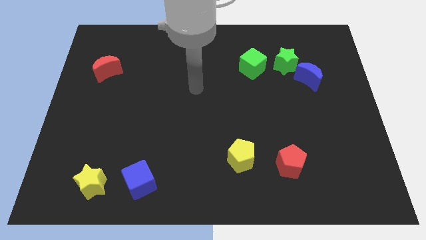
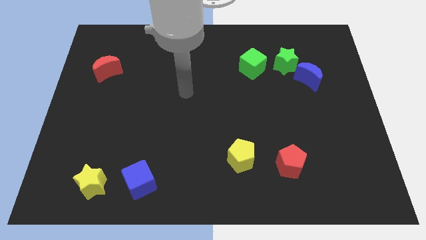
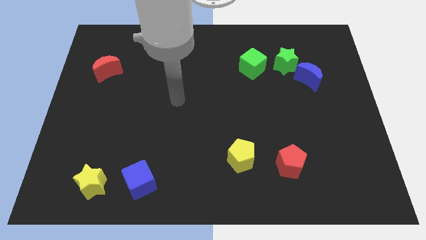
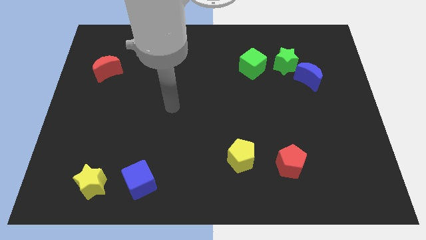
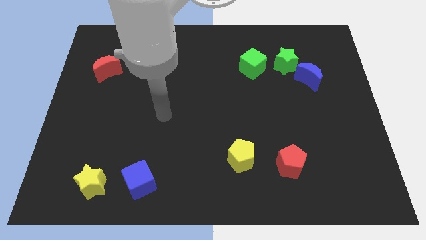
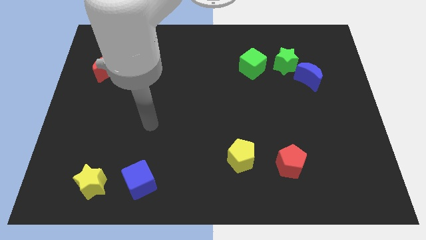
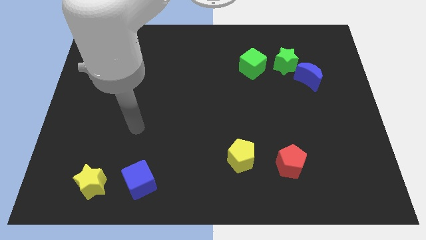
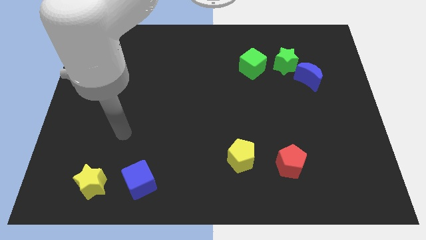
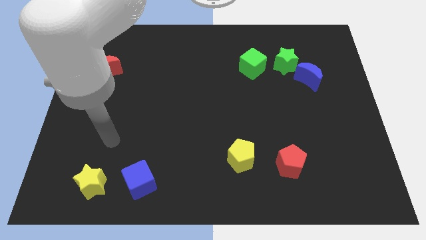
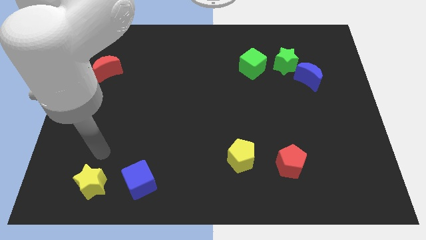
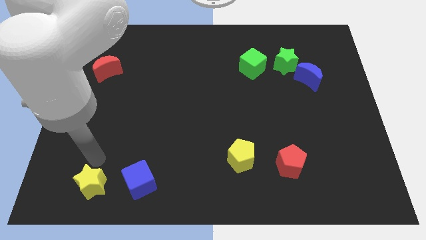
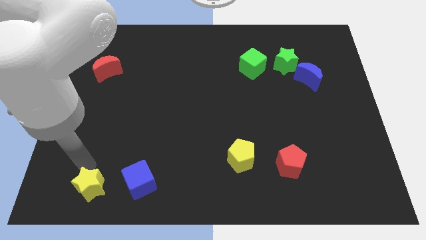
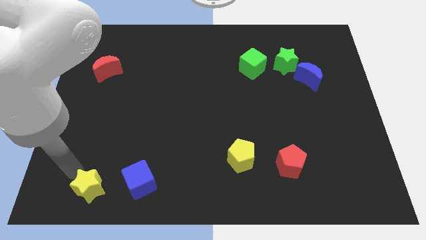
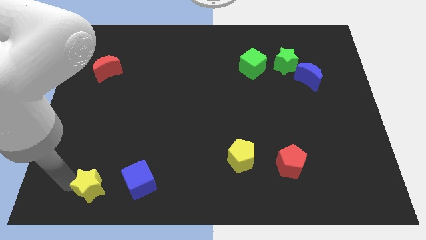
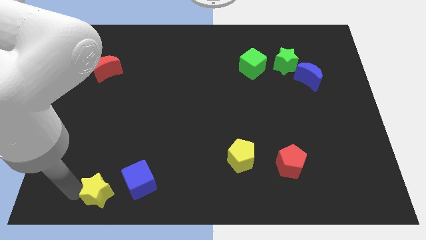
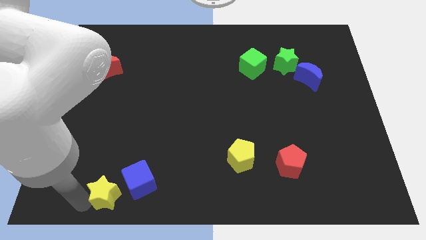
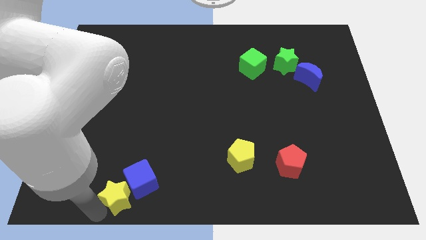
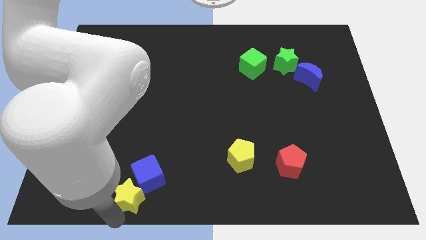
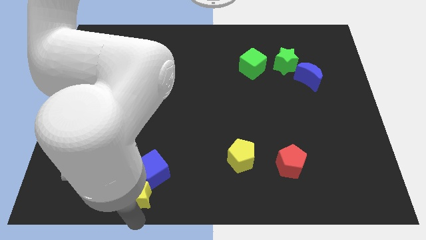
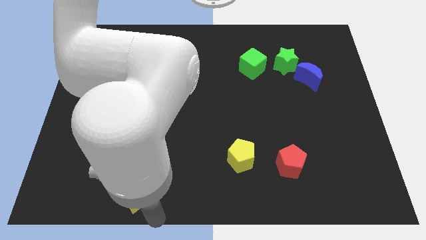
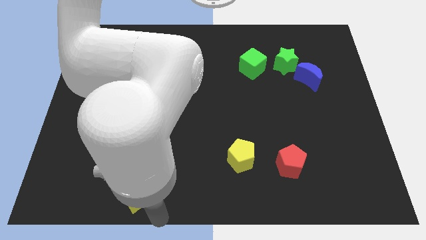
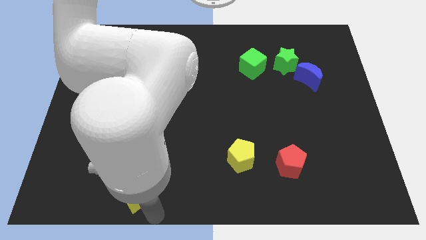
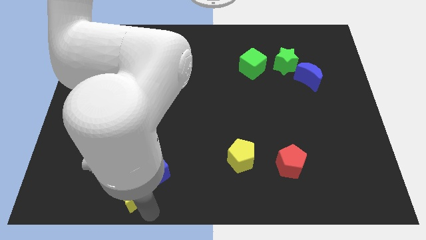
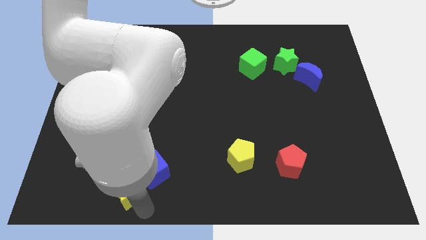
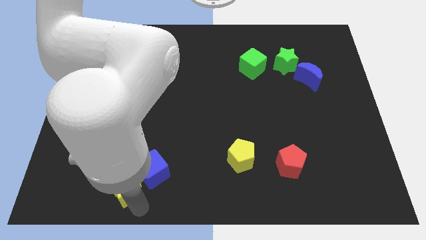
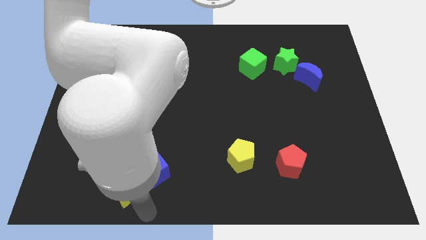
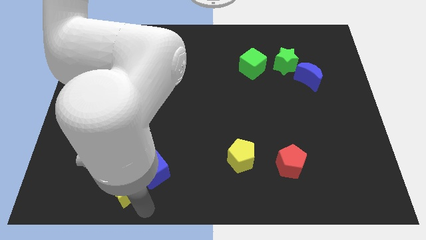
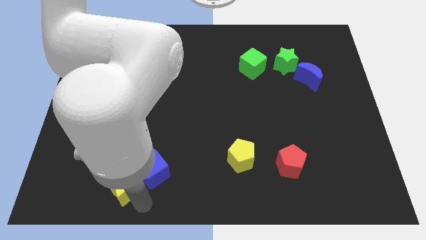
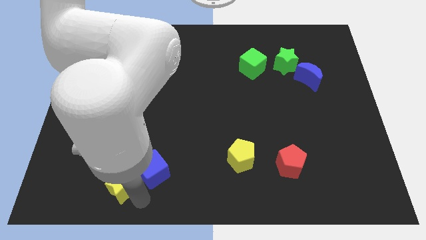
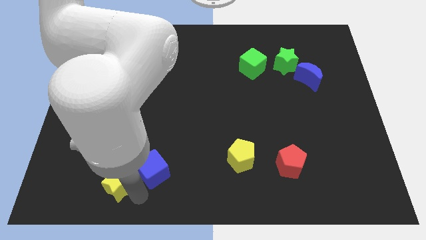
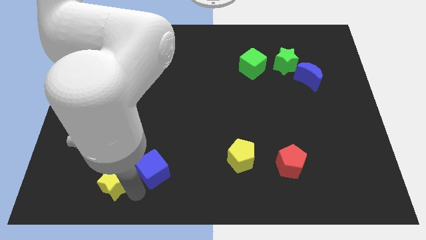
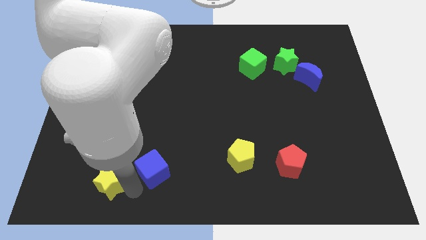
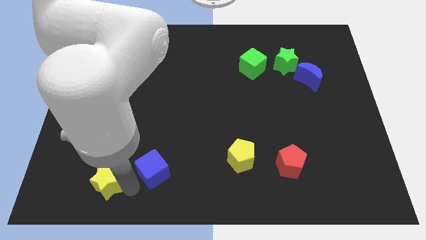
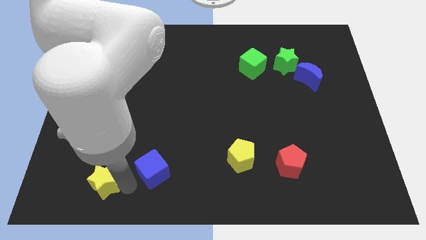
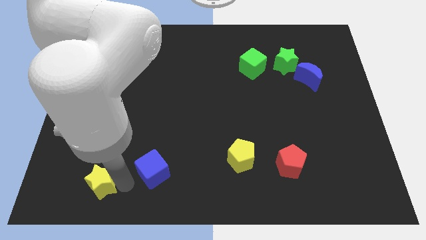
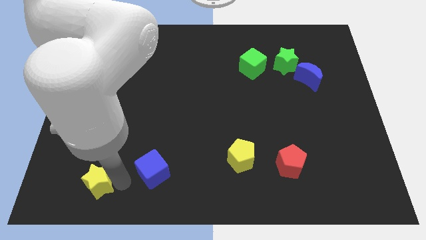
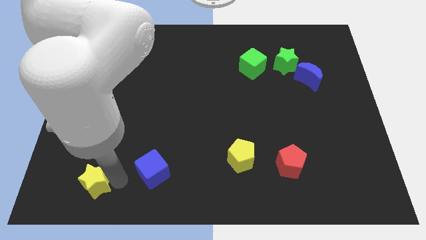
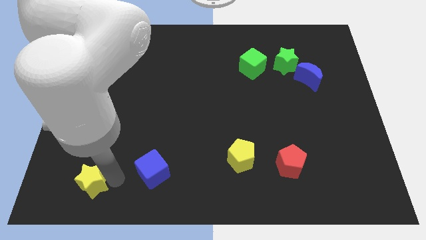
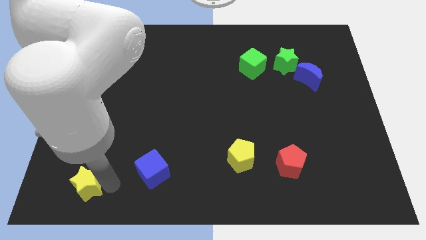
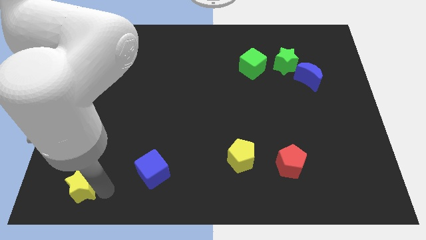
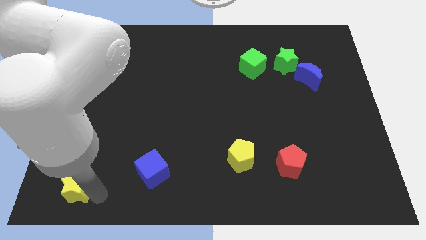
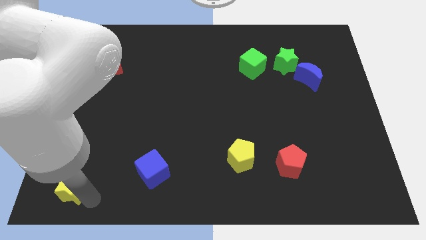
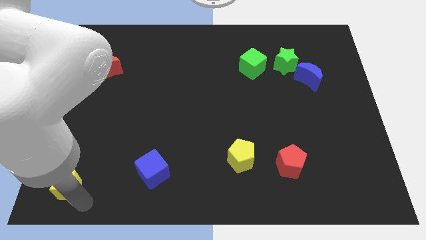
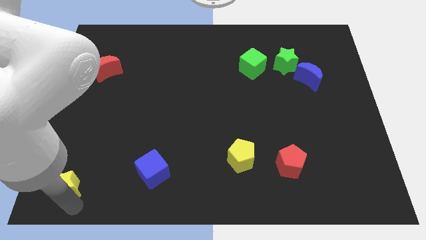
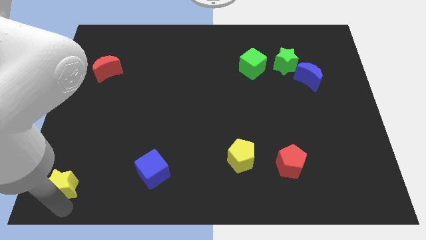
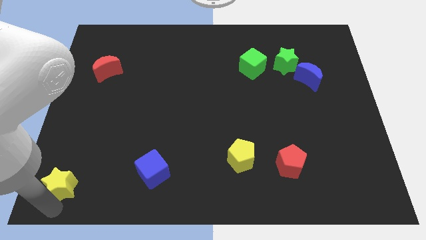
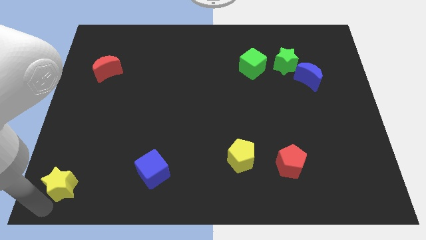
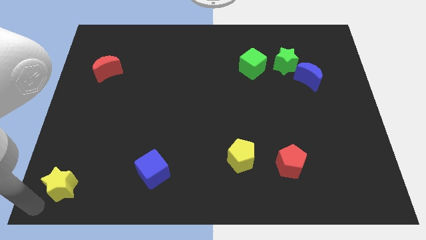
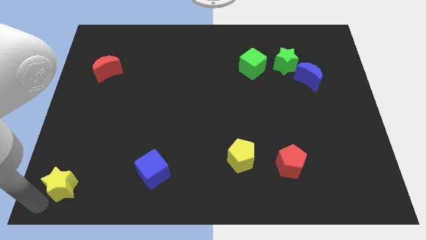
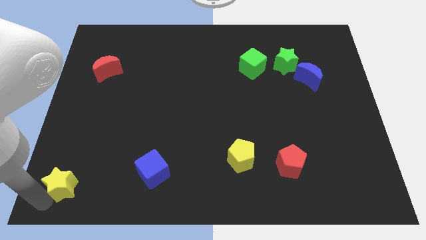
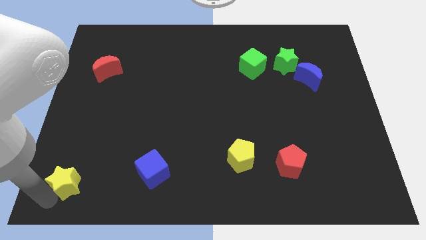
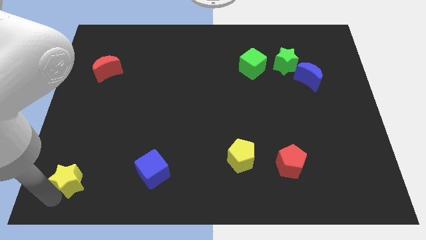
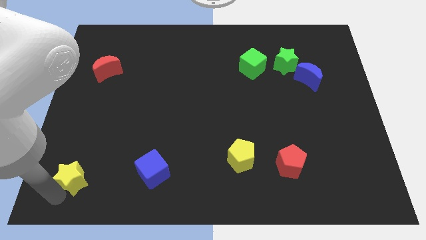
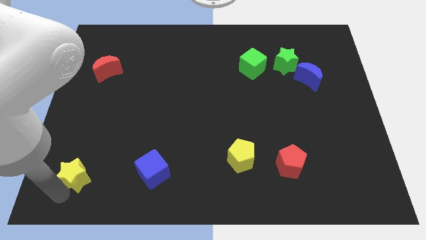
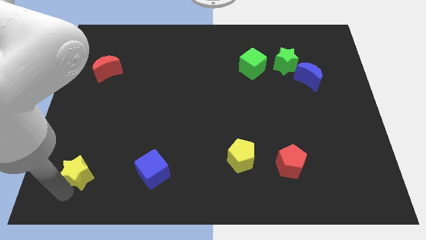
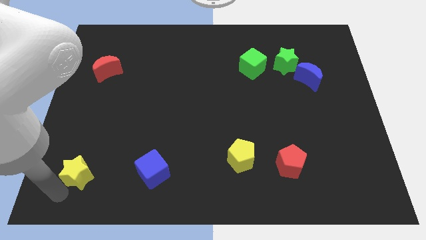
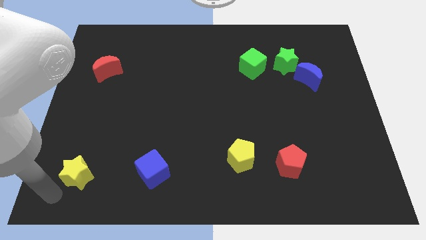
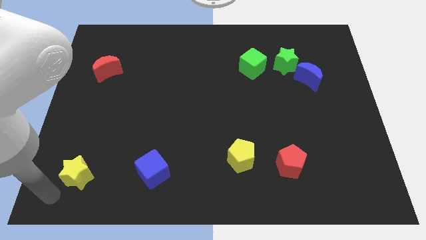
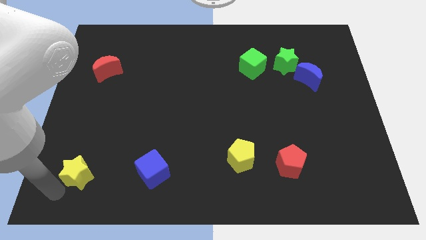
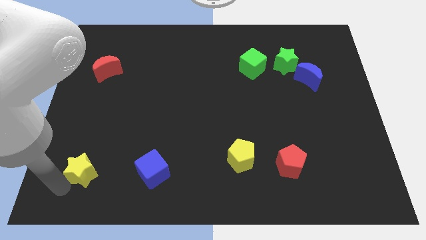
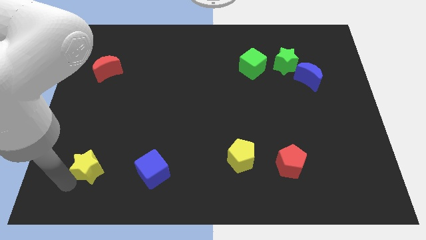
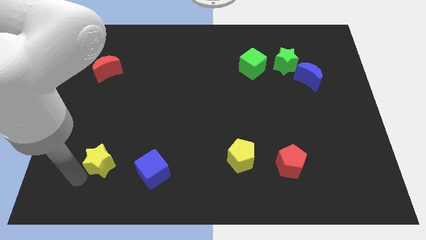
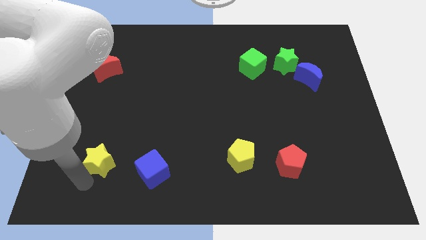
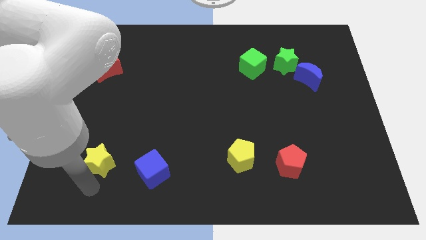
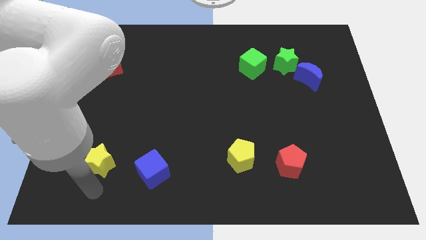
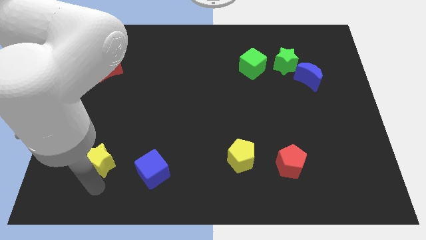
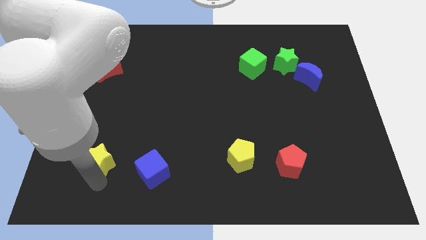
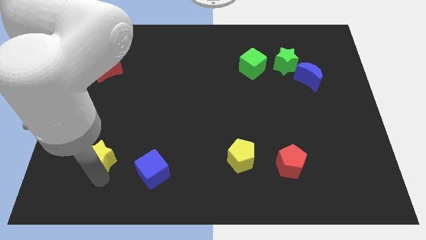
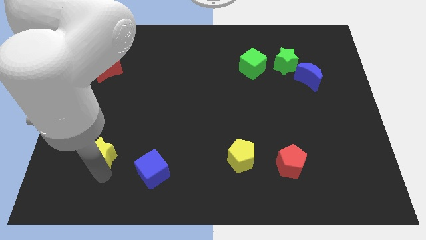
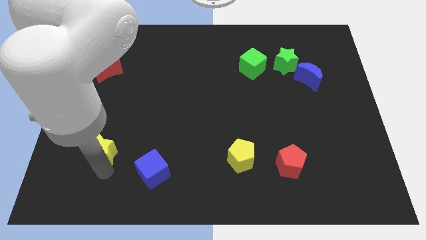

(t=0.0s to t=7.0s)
slide the yellow star a little bit up

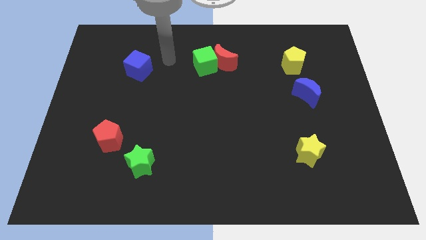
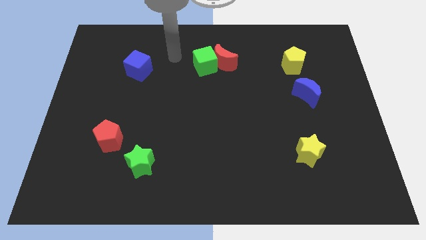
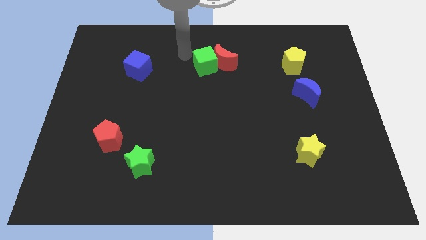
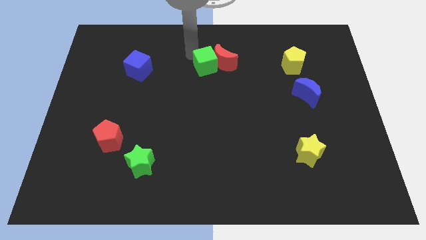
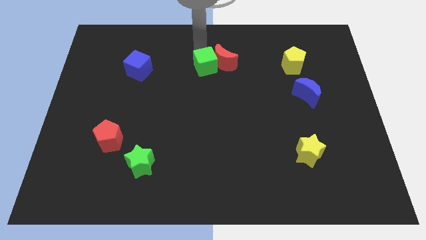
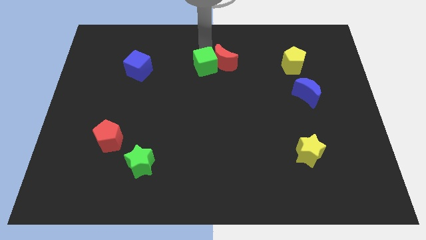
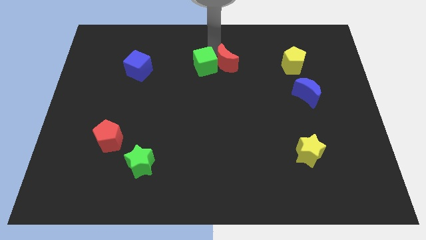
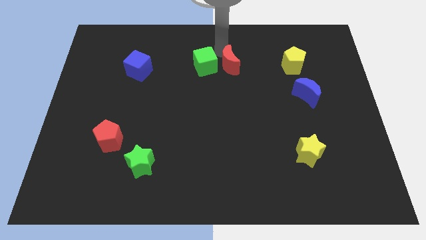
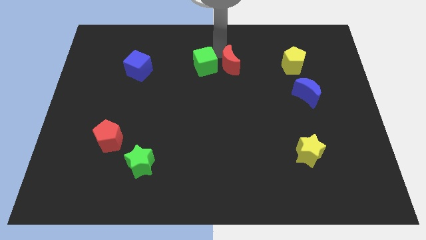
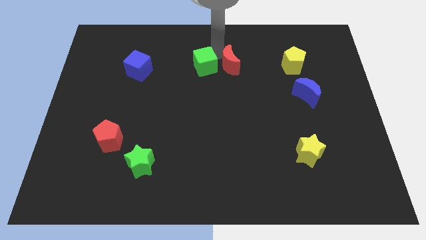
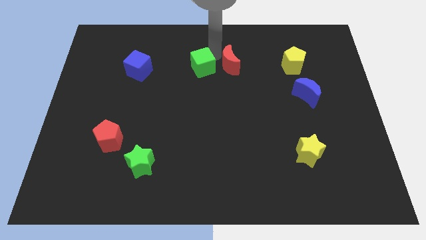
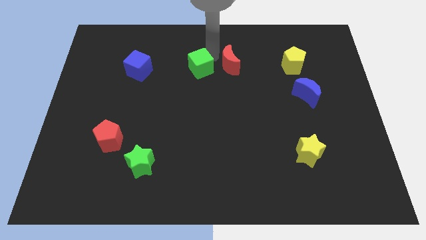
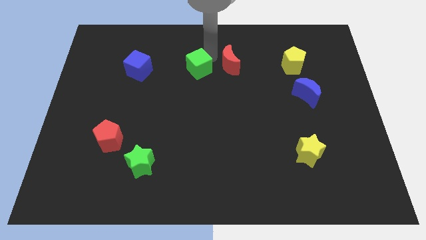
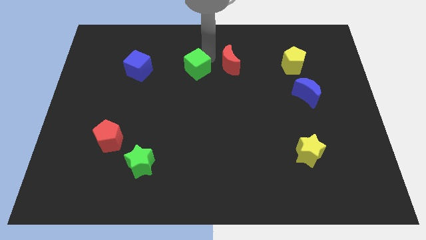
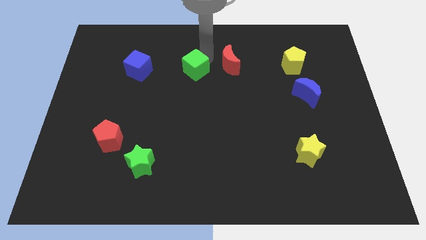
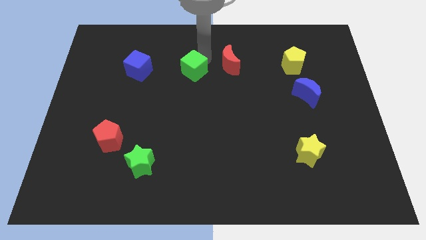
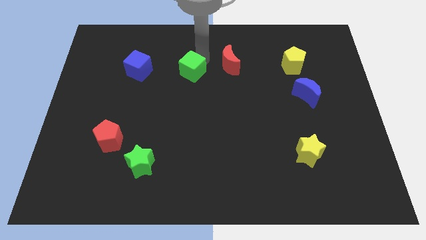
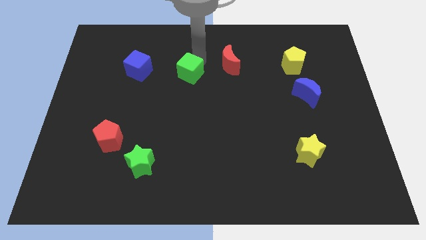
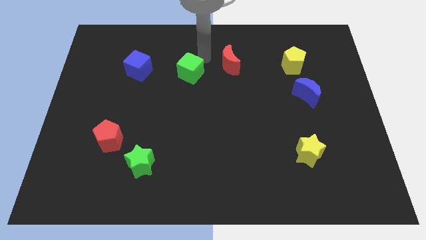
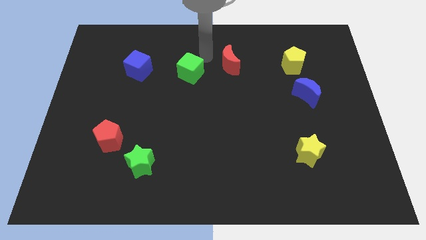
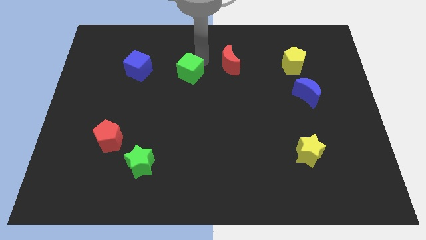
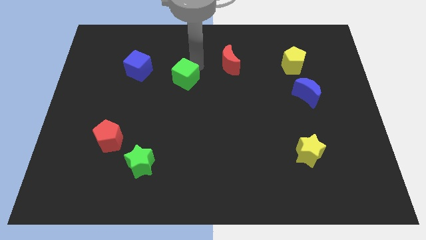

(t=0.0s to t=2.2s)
move the green cube a little downwards and left diagonally
